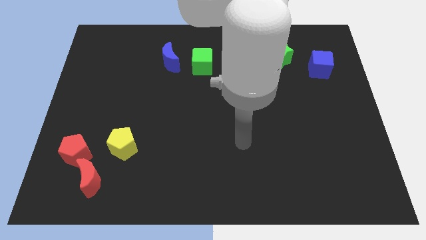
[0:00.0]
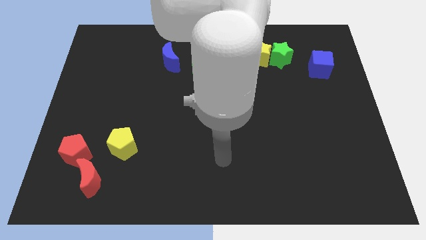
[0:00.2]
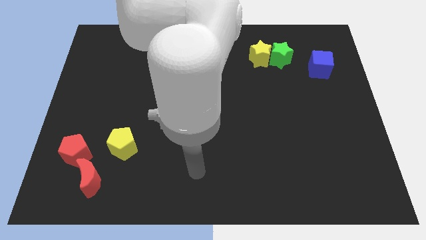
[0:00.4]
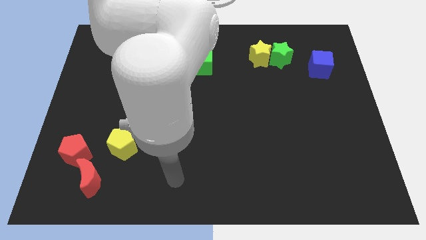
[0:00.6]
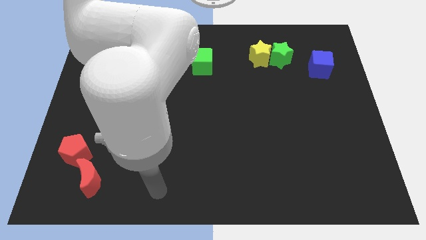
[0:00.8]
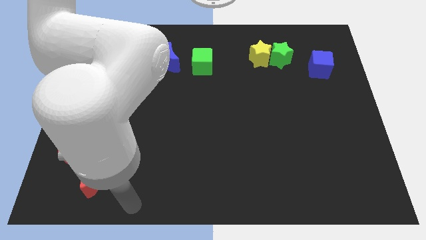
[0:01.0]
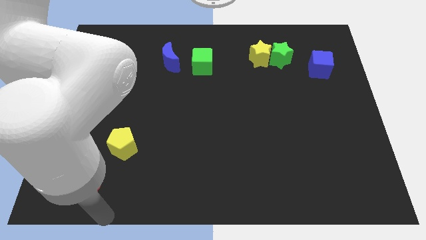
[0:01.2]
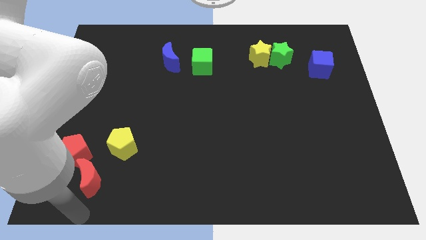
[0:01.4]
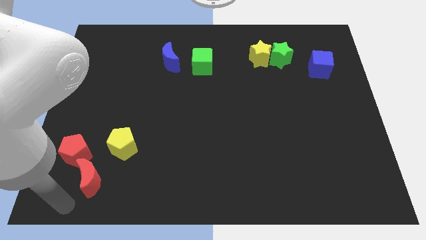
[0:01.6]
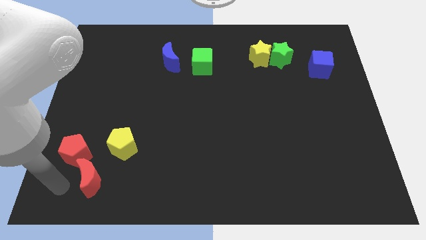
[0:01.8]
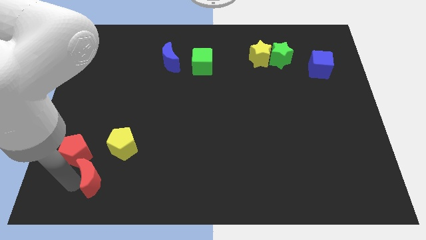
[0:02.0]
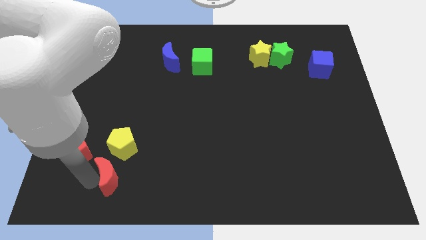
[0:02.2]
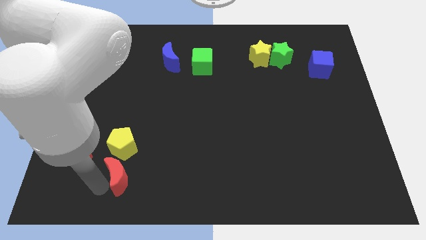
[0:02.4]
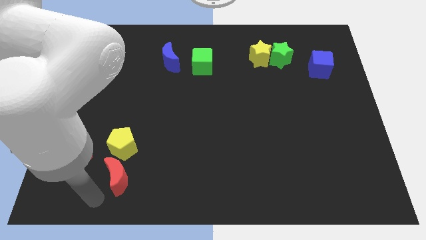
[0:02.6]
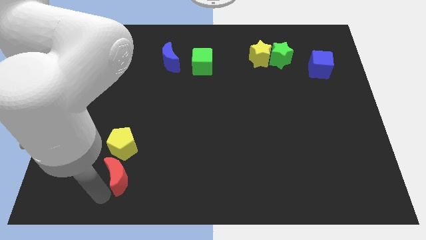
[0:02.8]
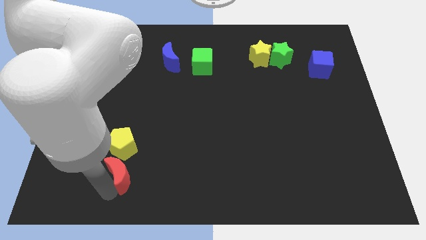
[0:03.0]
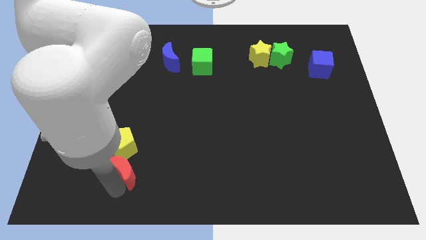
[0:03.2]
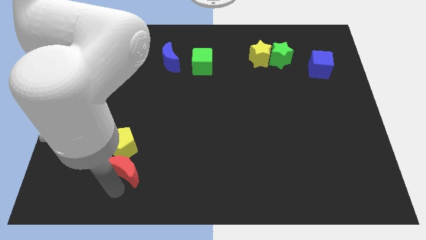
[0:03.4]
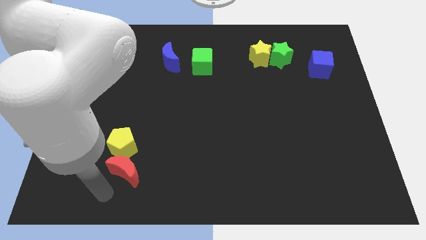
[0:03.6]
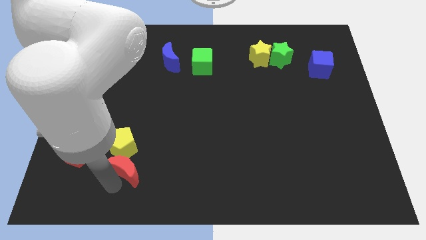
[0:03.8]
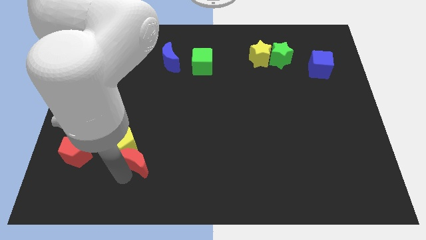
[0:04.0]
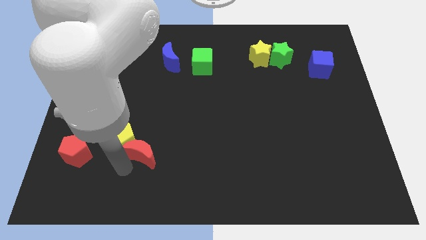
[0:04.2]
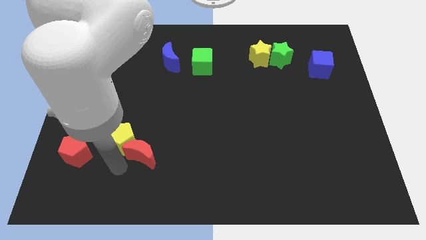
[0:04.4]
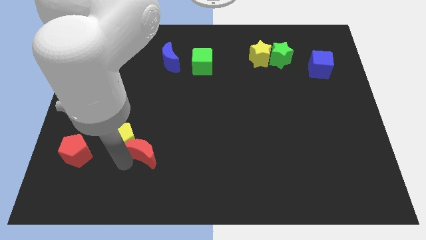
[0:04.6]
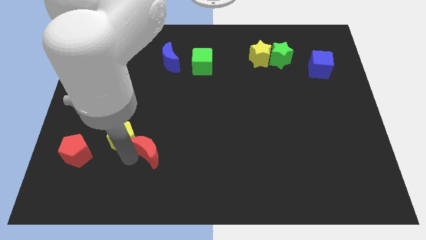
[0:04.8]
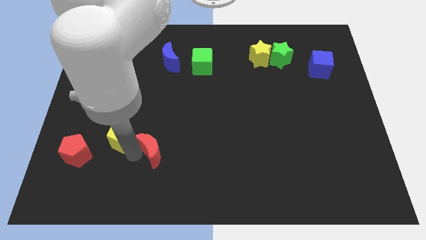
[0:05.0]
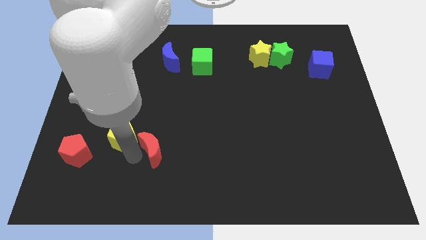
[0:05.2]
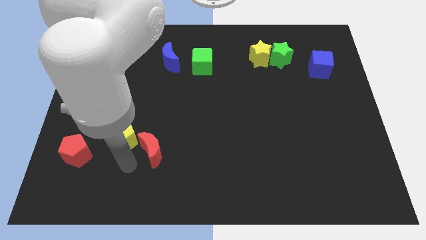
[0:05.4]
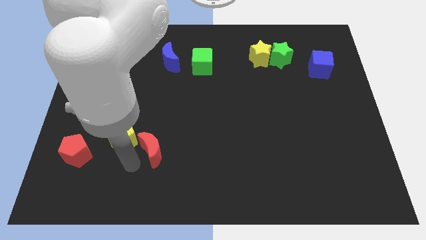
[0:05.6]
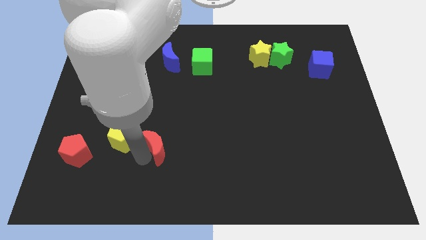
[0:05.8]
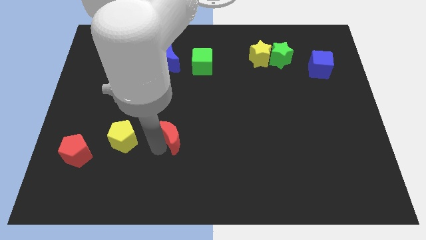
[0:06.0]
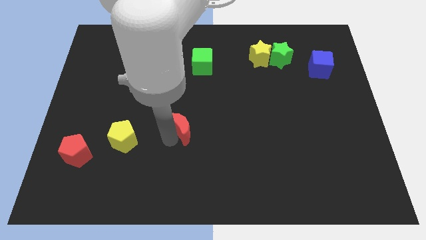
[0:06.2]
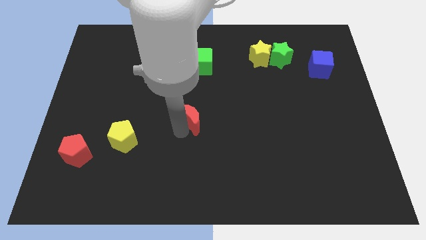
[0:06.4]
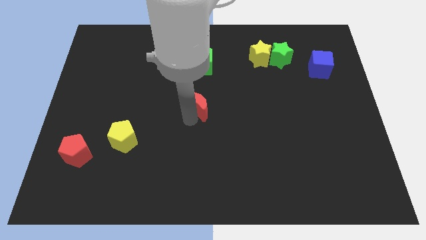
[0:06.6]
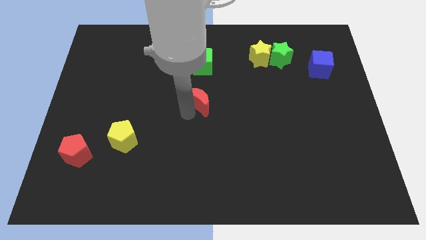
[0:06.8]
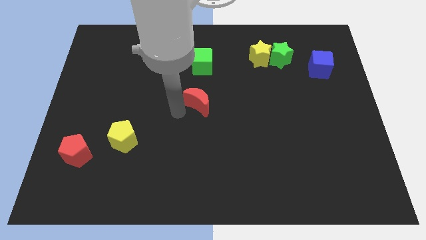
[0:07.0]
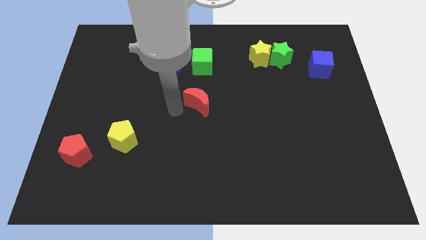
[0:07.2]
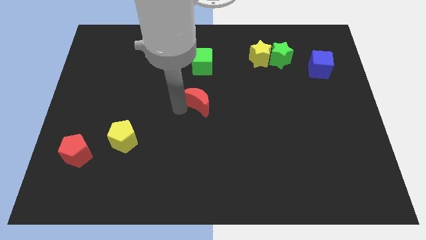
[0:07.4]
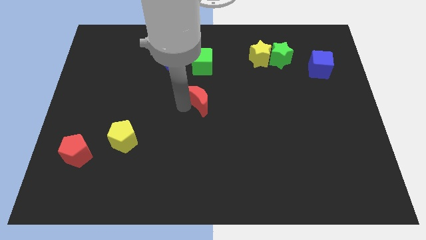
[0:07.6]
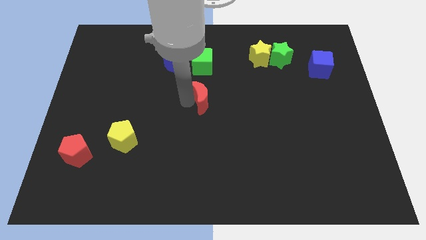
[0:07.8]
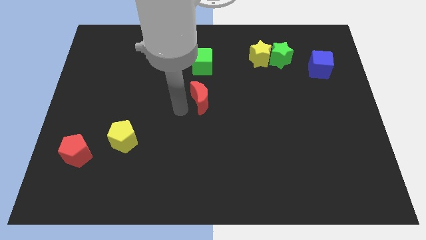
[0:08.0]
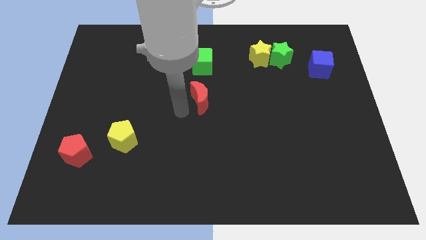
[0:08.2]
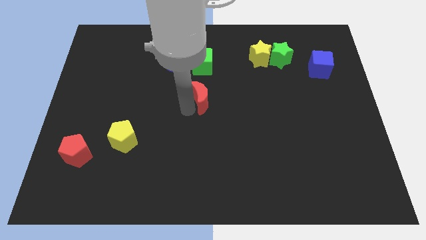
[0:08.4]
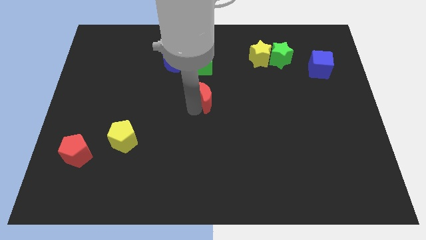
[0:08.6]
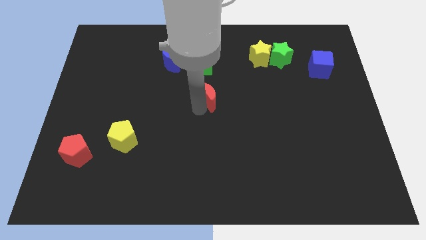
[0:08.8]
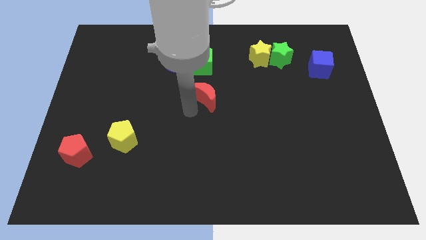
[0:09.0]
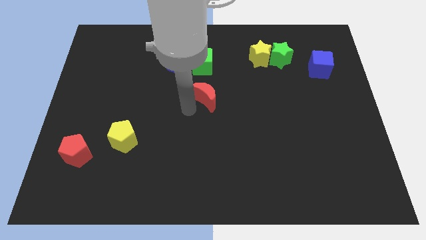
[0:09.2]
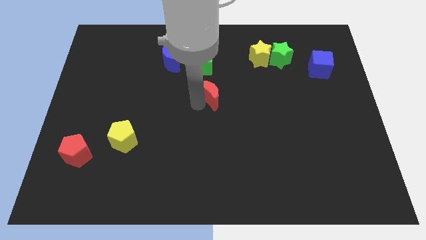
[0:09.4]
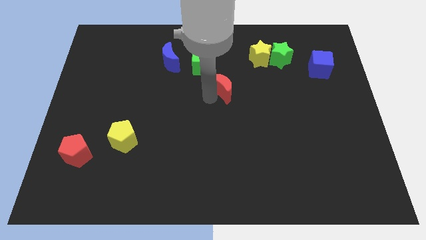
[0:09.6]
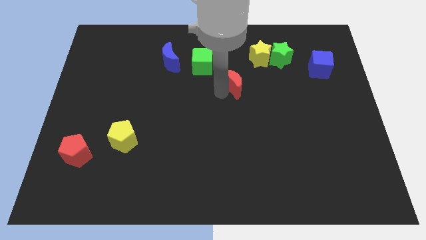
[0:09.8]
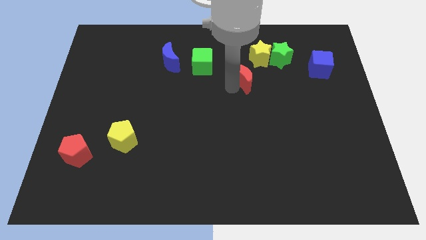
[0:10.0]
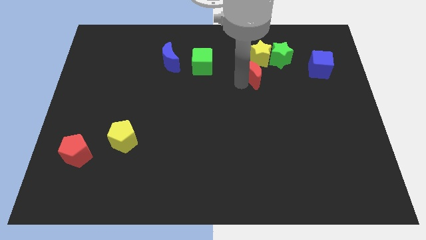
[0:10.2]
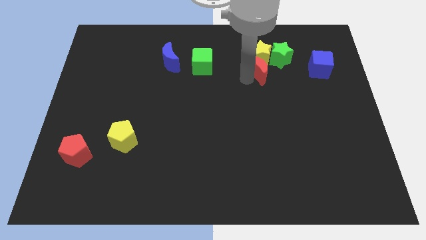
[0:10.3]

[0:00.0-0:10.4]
push the red moon to the left of the blue cube

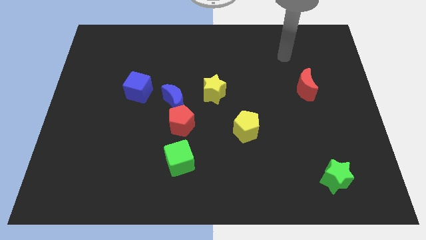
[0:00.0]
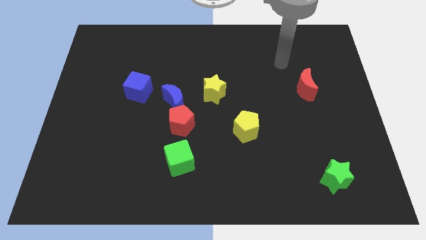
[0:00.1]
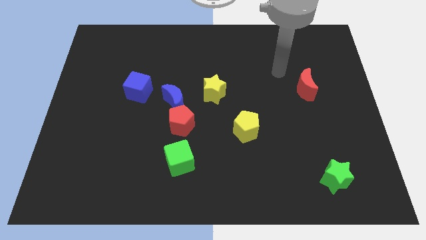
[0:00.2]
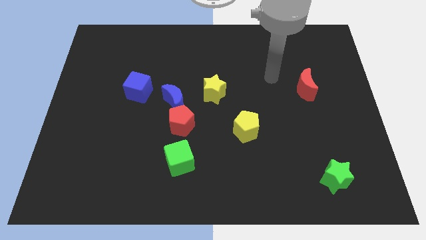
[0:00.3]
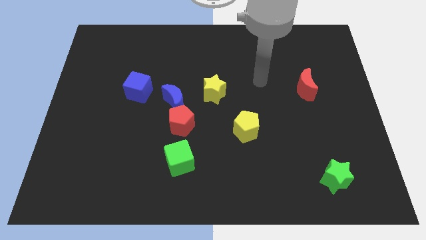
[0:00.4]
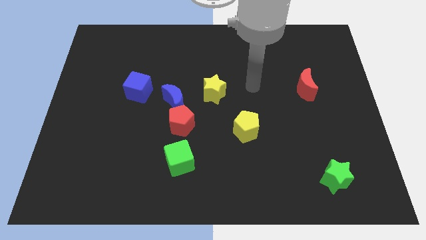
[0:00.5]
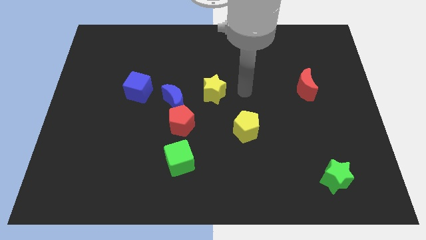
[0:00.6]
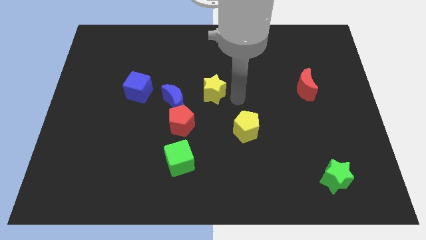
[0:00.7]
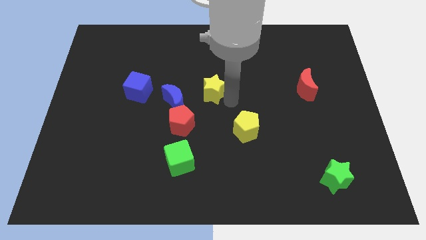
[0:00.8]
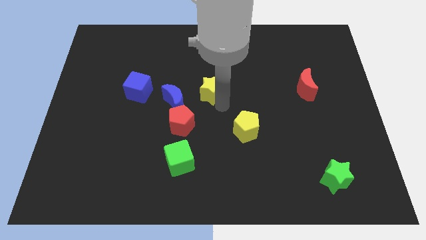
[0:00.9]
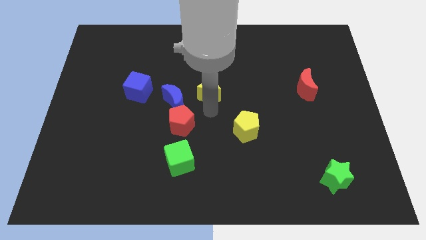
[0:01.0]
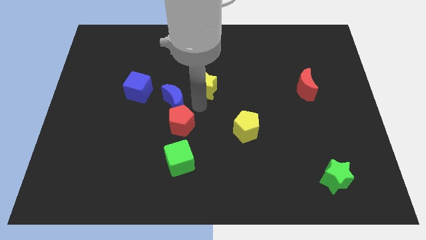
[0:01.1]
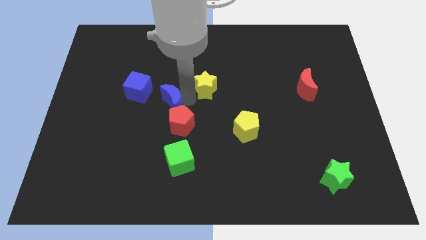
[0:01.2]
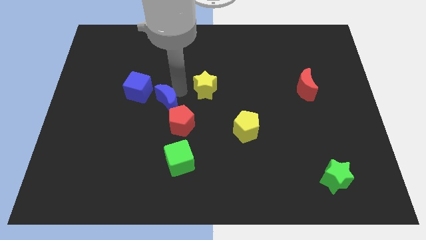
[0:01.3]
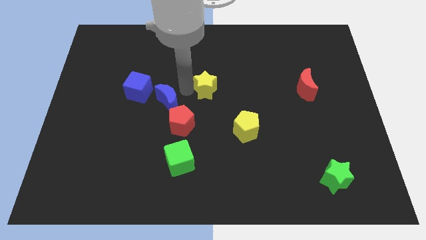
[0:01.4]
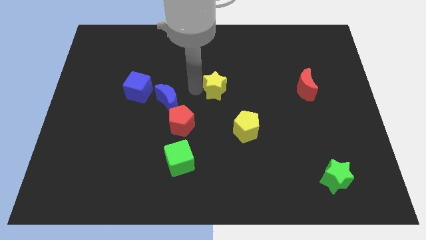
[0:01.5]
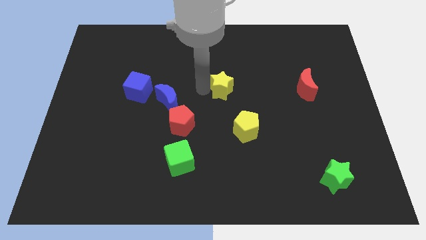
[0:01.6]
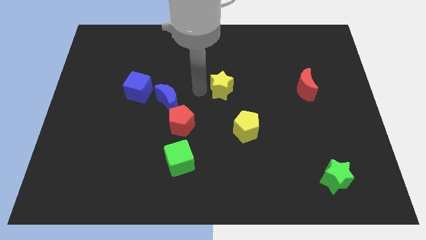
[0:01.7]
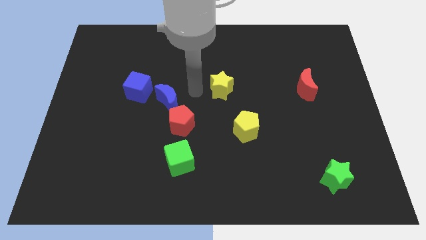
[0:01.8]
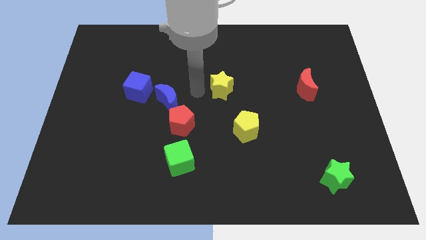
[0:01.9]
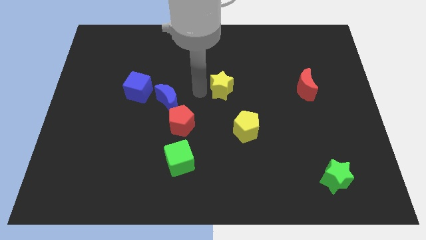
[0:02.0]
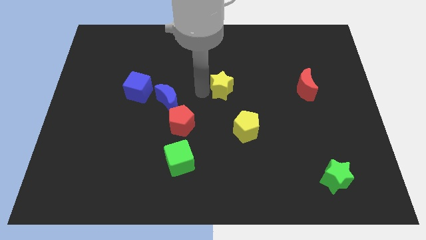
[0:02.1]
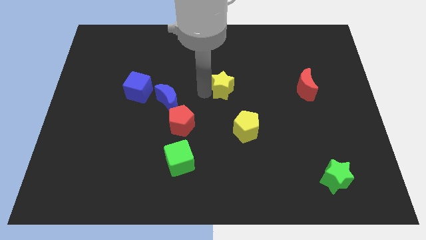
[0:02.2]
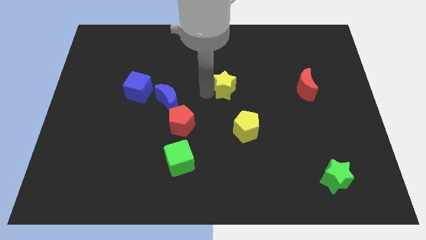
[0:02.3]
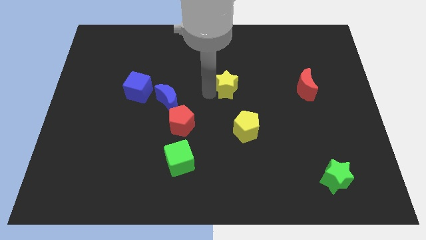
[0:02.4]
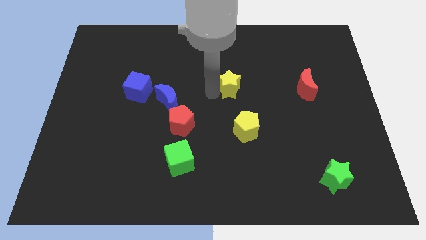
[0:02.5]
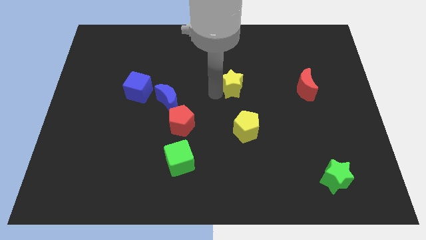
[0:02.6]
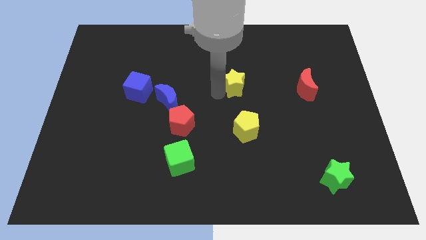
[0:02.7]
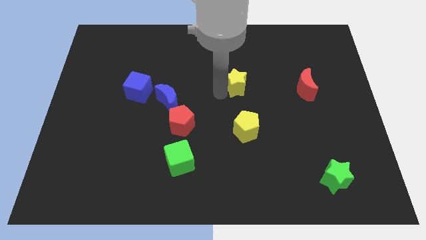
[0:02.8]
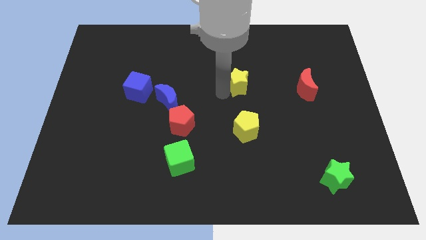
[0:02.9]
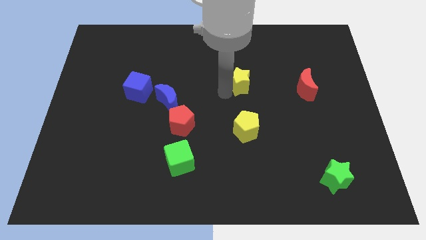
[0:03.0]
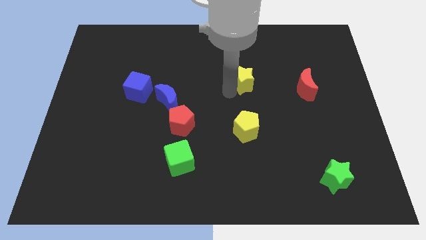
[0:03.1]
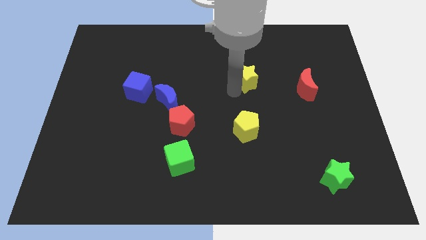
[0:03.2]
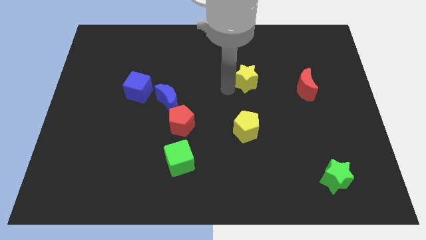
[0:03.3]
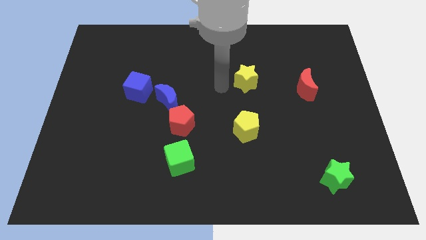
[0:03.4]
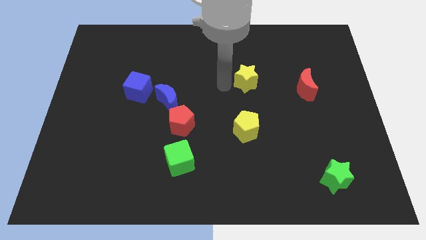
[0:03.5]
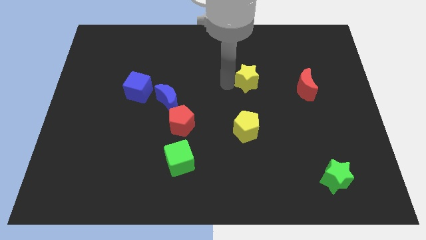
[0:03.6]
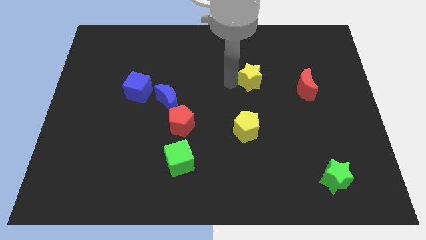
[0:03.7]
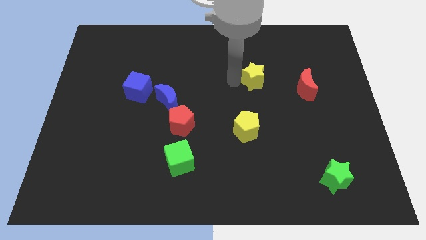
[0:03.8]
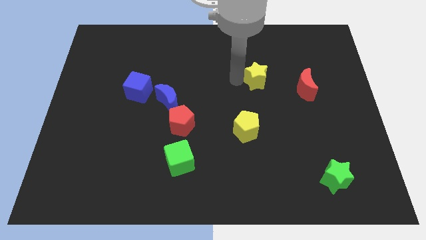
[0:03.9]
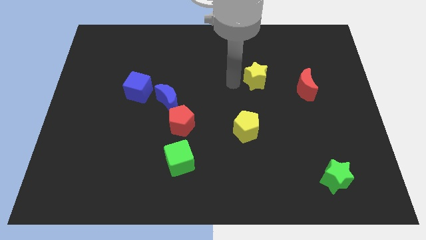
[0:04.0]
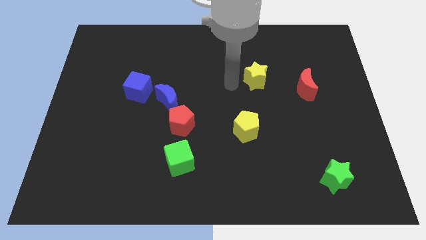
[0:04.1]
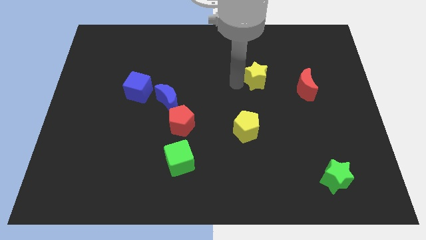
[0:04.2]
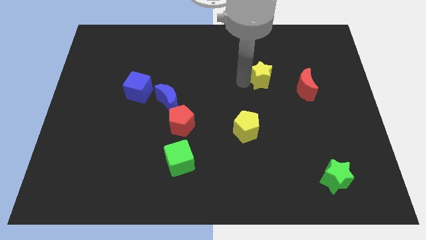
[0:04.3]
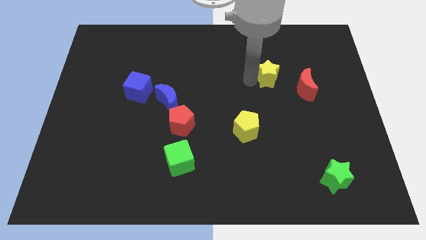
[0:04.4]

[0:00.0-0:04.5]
move the yellow star to the top left side of the red moon
